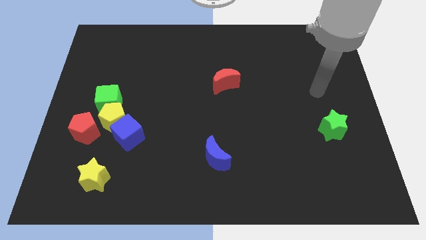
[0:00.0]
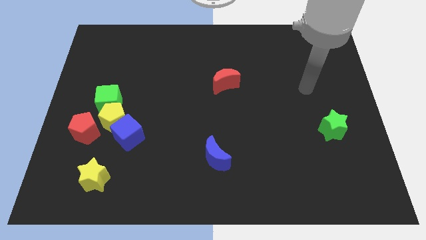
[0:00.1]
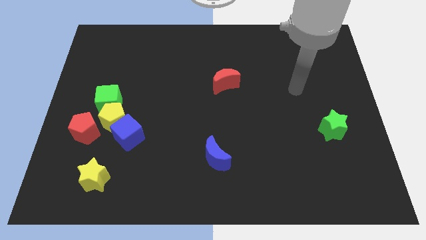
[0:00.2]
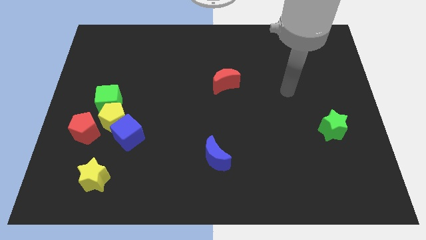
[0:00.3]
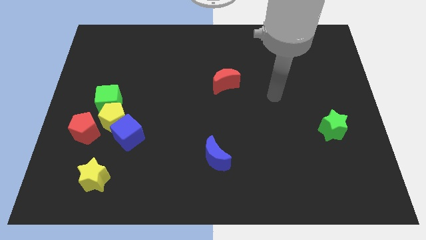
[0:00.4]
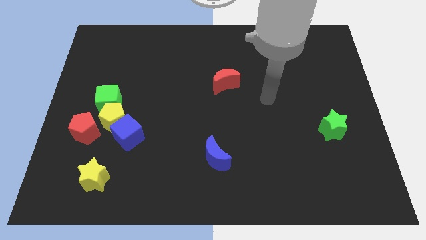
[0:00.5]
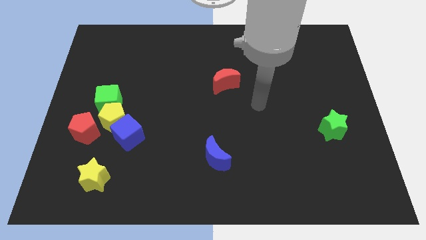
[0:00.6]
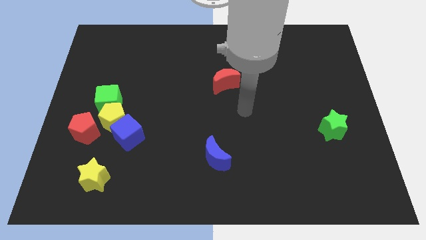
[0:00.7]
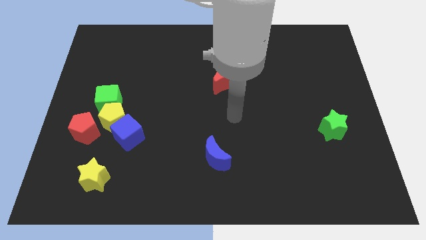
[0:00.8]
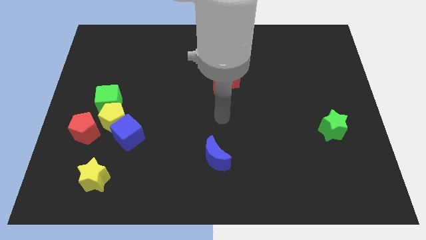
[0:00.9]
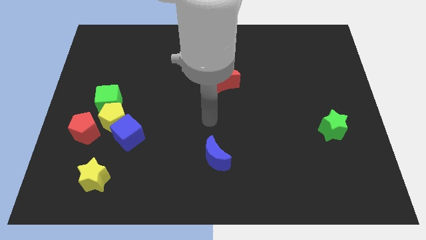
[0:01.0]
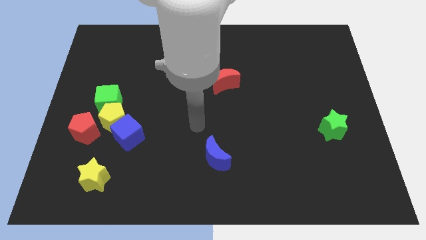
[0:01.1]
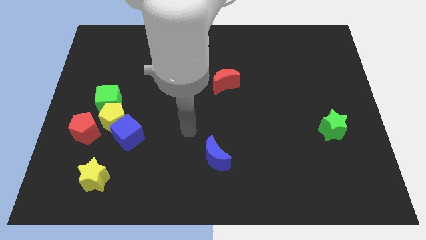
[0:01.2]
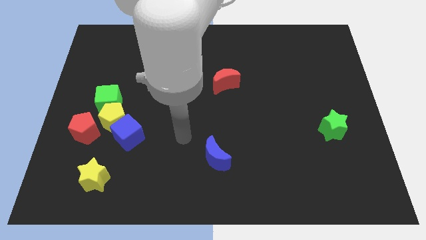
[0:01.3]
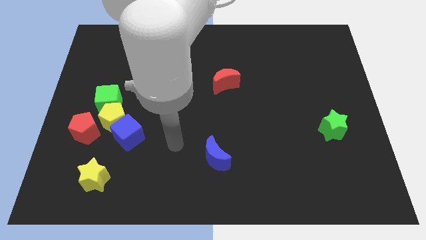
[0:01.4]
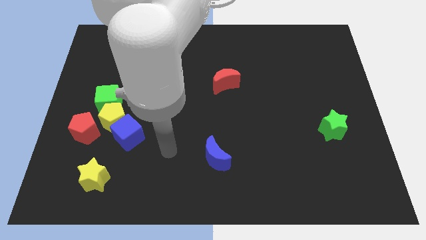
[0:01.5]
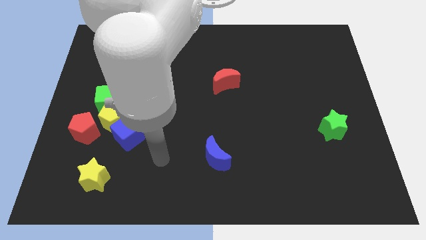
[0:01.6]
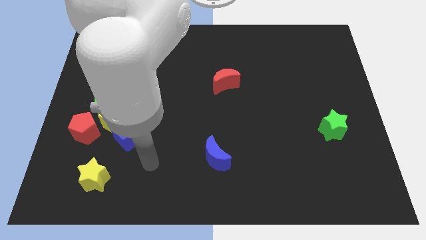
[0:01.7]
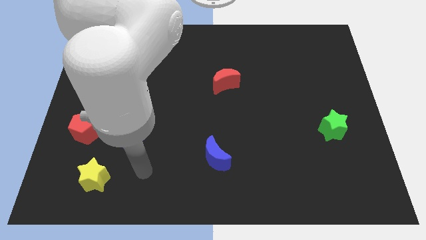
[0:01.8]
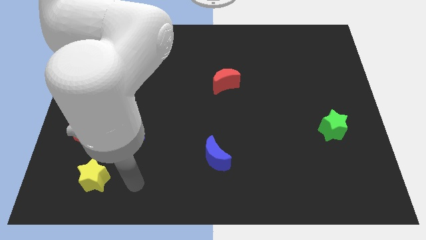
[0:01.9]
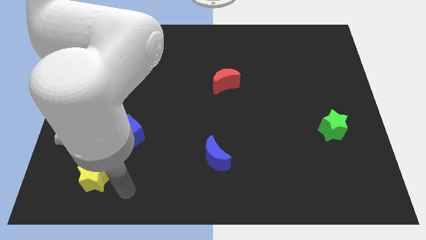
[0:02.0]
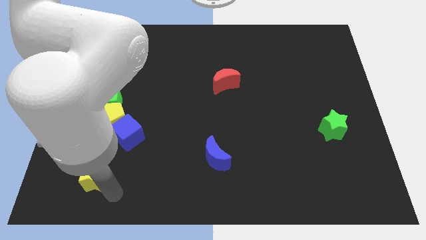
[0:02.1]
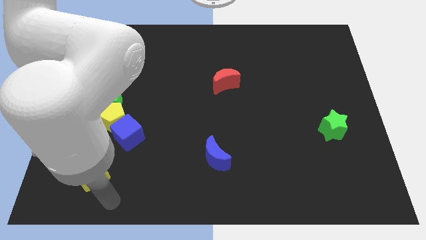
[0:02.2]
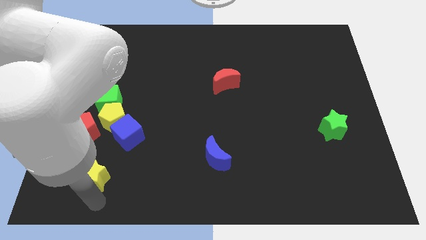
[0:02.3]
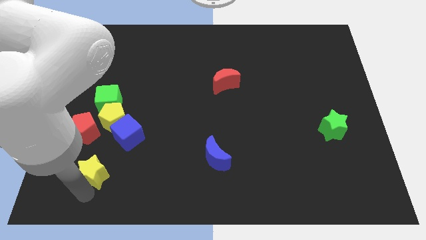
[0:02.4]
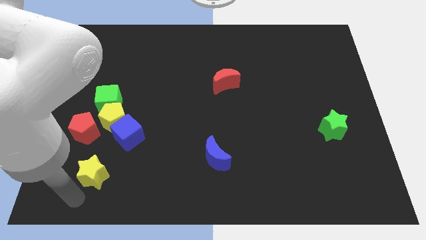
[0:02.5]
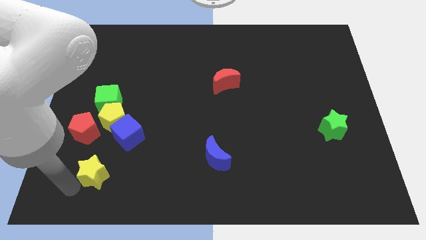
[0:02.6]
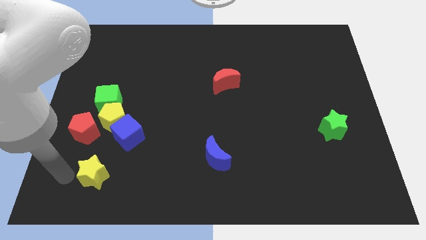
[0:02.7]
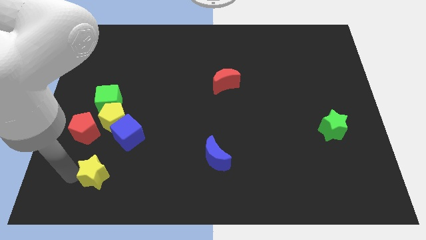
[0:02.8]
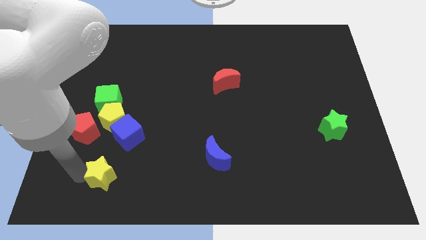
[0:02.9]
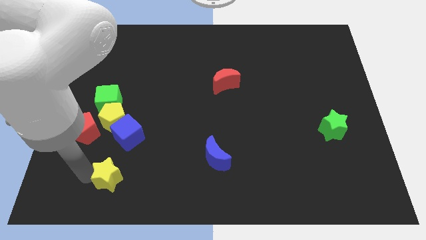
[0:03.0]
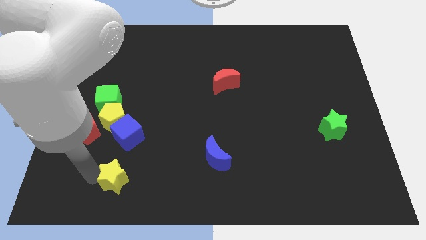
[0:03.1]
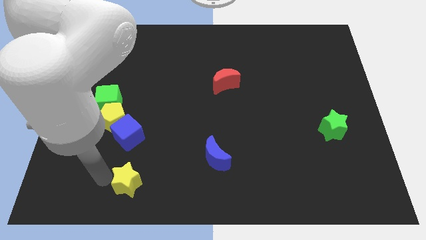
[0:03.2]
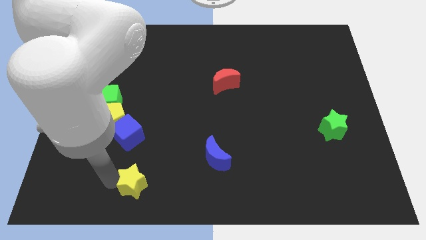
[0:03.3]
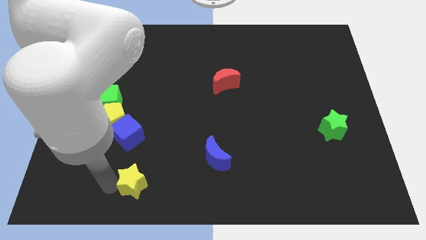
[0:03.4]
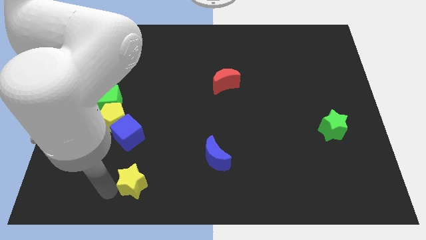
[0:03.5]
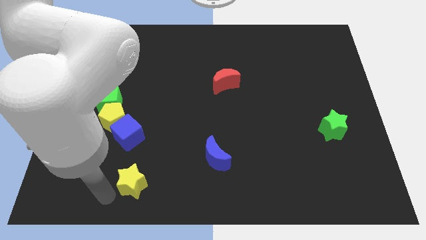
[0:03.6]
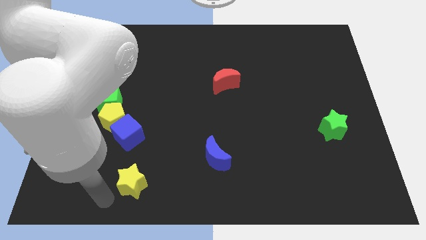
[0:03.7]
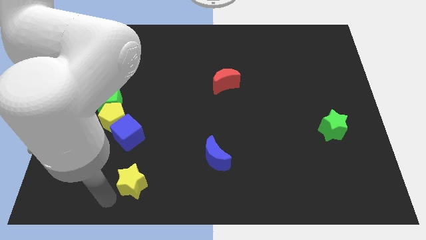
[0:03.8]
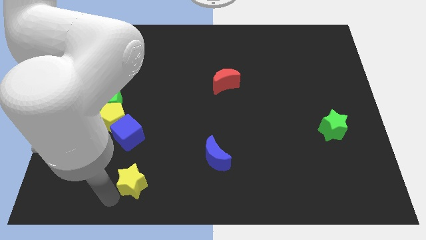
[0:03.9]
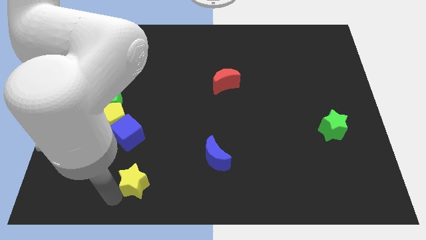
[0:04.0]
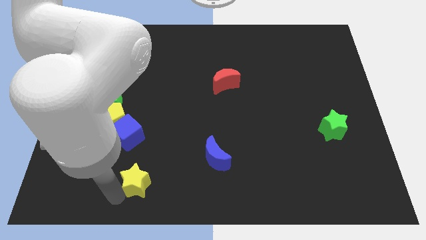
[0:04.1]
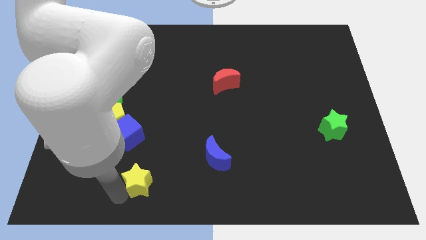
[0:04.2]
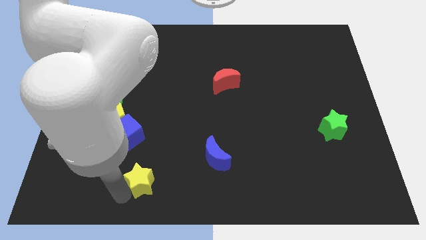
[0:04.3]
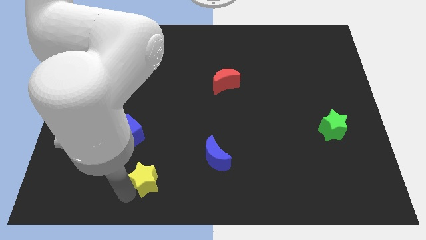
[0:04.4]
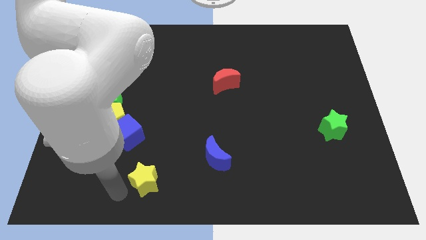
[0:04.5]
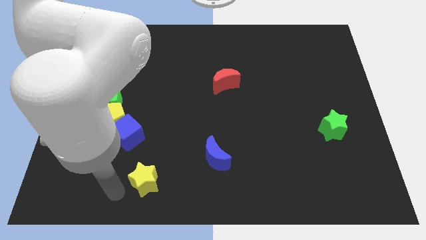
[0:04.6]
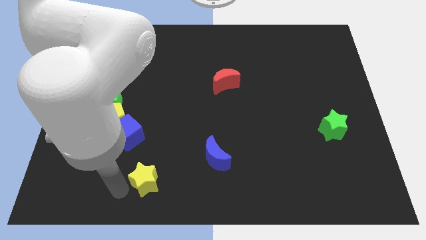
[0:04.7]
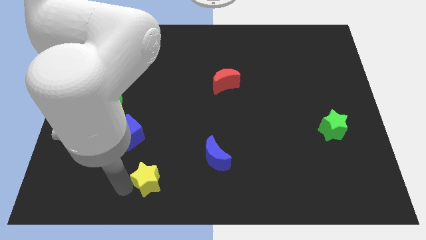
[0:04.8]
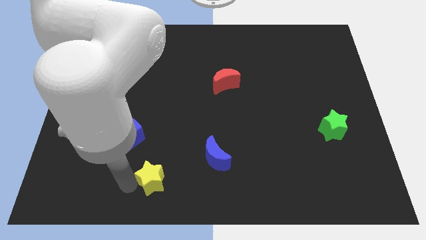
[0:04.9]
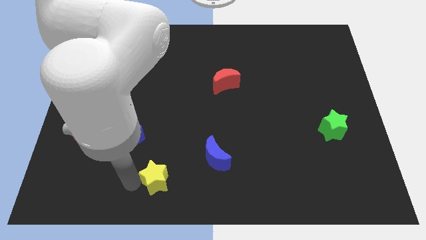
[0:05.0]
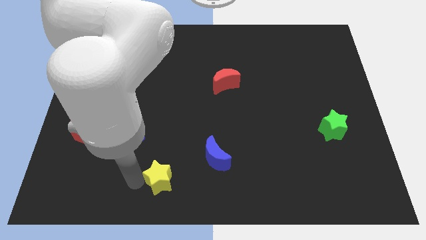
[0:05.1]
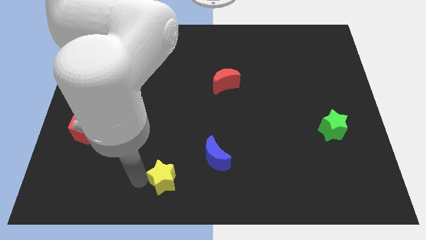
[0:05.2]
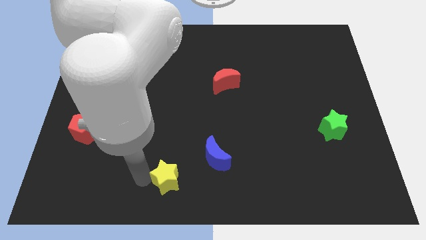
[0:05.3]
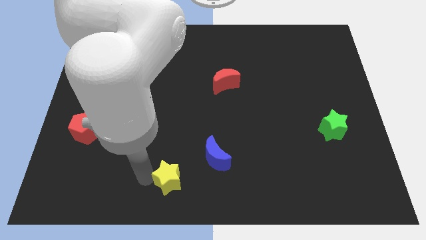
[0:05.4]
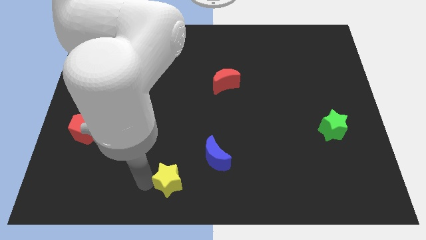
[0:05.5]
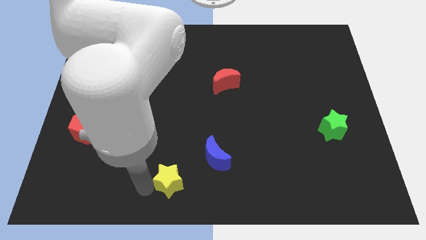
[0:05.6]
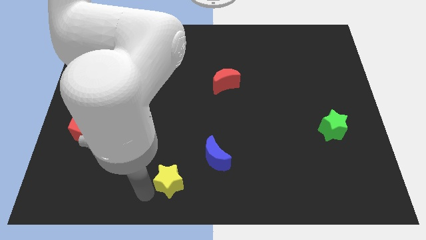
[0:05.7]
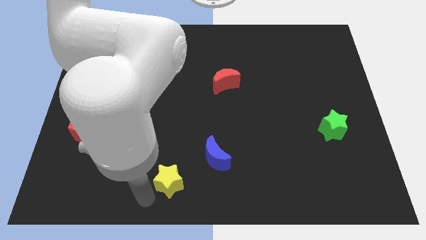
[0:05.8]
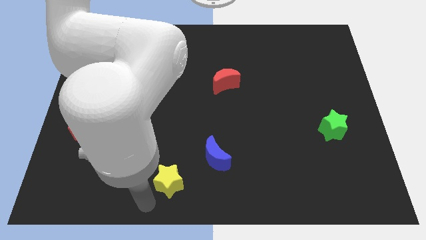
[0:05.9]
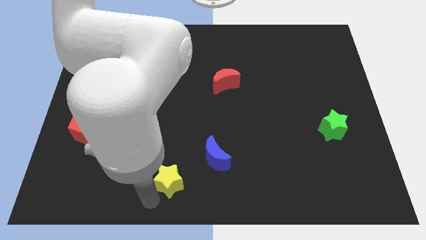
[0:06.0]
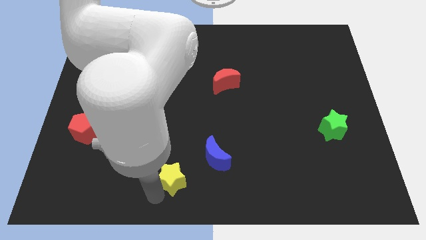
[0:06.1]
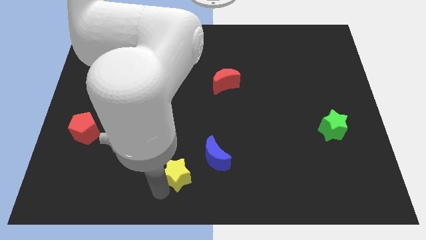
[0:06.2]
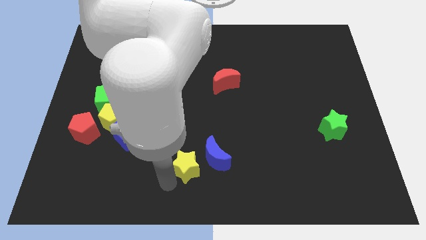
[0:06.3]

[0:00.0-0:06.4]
move the yellow star towards the blue moon
